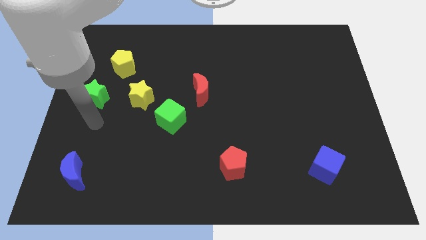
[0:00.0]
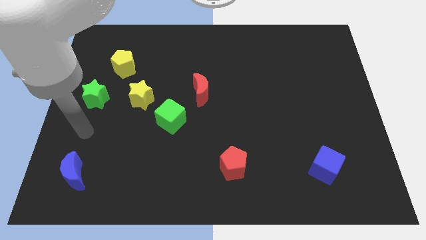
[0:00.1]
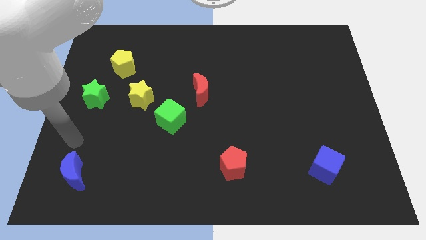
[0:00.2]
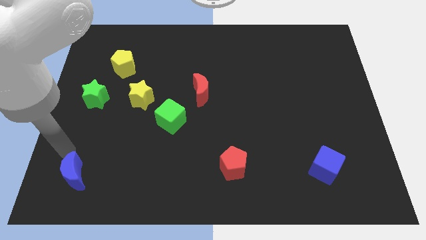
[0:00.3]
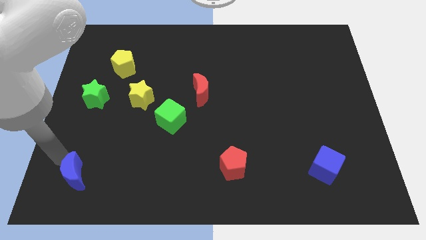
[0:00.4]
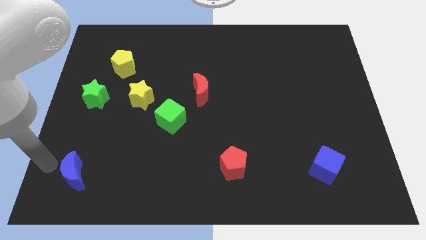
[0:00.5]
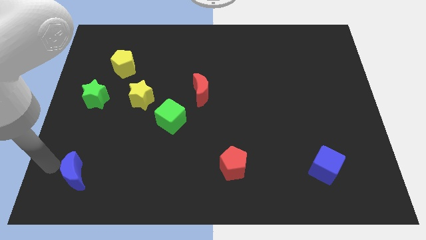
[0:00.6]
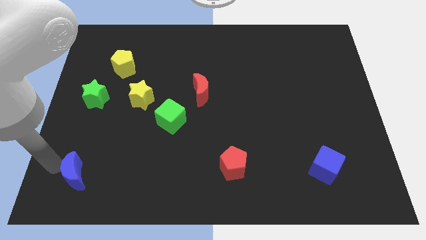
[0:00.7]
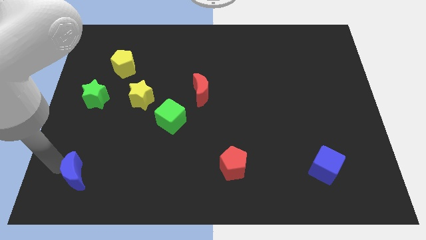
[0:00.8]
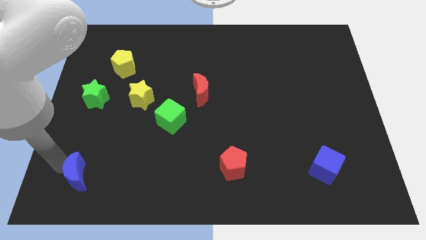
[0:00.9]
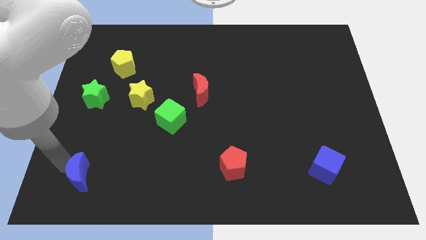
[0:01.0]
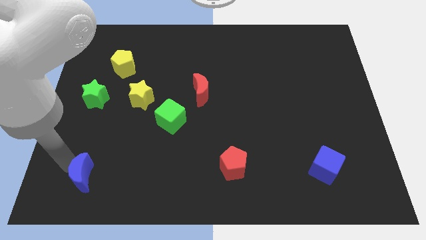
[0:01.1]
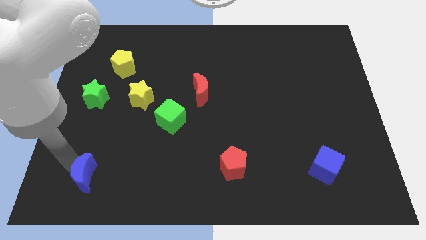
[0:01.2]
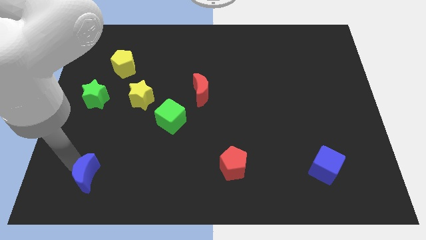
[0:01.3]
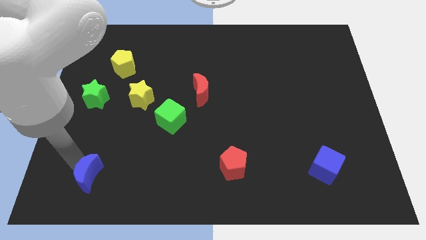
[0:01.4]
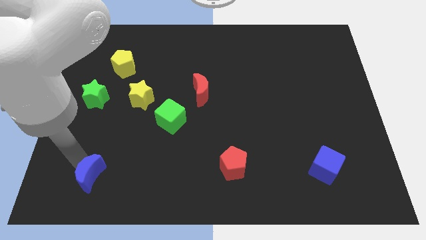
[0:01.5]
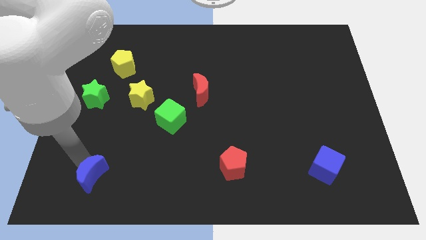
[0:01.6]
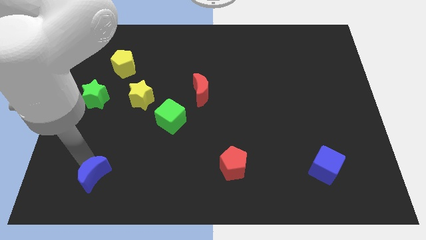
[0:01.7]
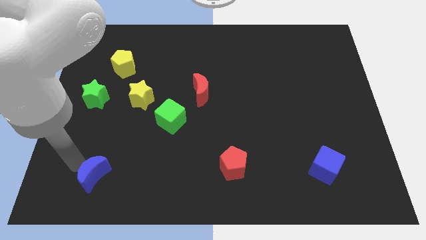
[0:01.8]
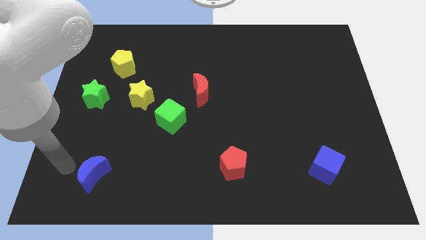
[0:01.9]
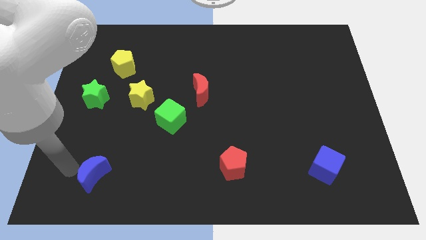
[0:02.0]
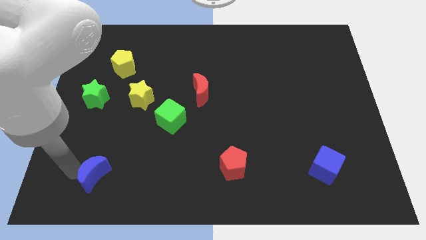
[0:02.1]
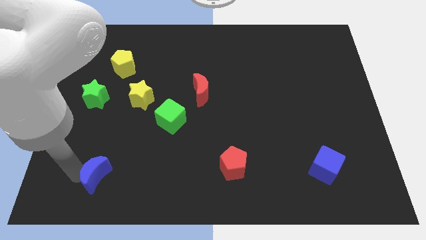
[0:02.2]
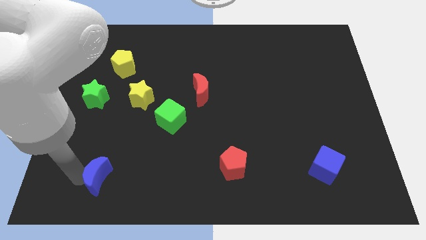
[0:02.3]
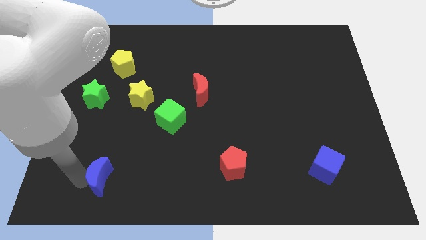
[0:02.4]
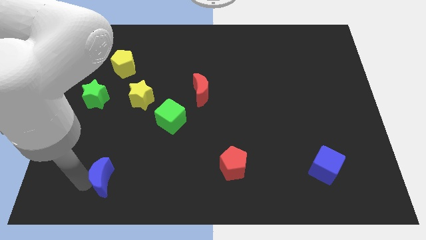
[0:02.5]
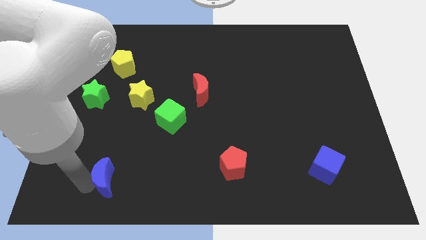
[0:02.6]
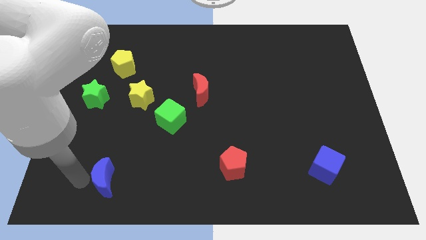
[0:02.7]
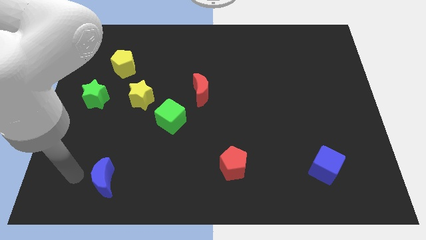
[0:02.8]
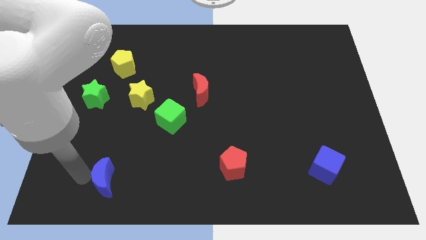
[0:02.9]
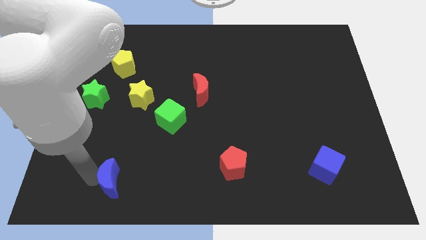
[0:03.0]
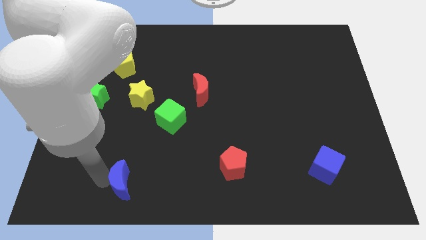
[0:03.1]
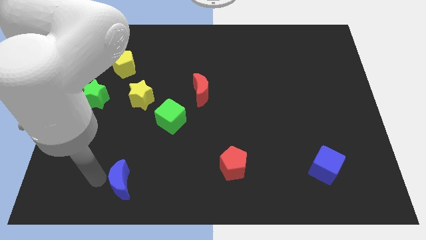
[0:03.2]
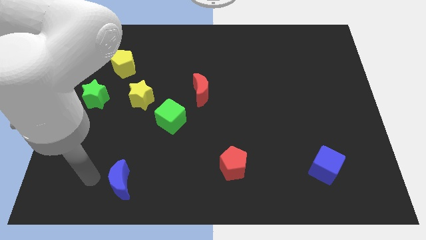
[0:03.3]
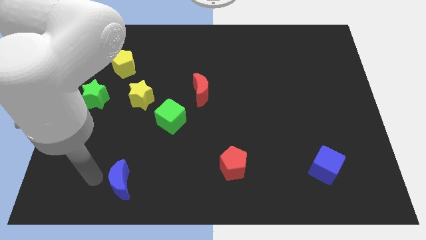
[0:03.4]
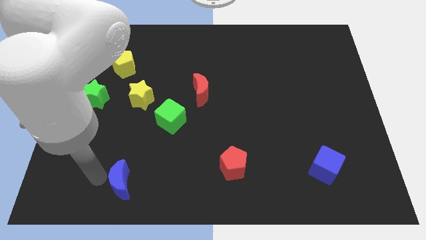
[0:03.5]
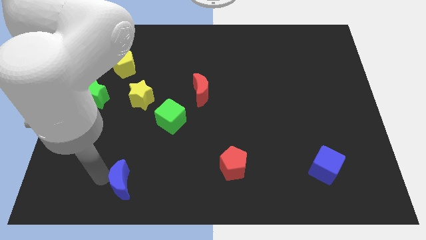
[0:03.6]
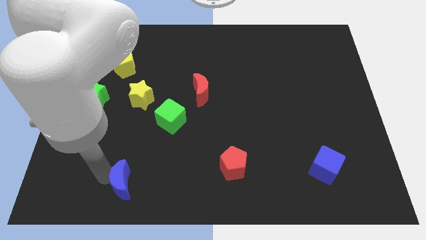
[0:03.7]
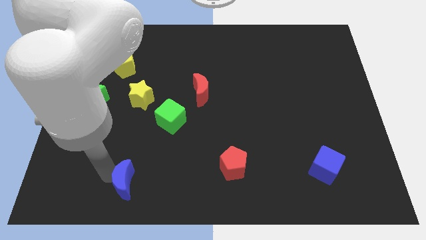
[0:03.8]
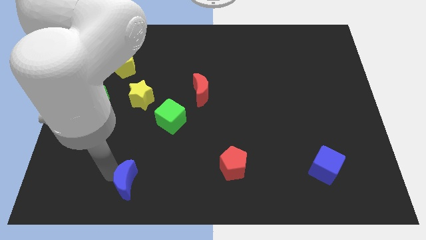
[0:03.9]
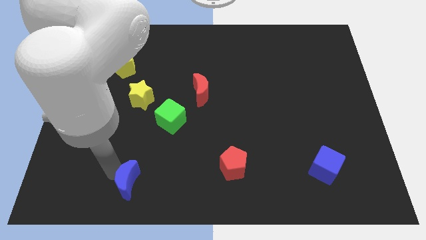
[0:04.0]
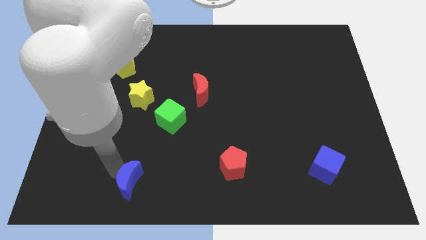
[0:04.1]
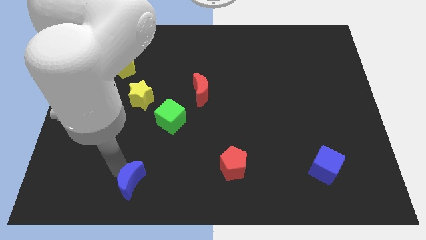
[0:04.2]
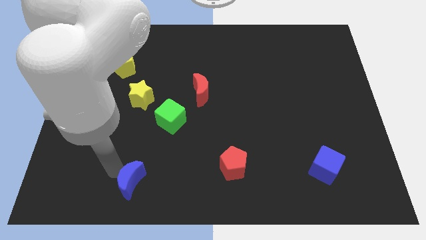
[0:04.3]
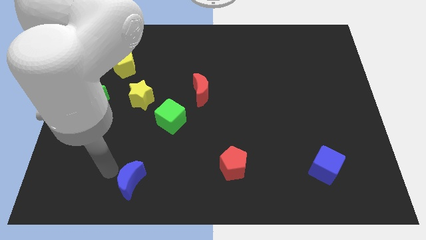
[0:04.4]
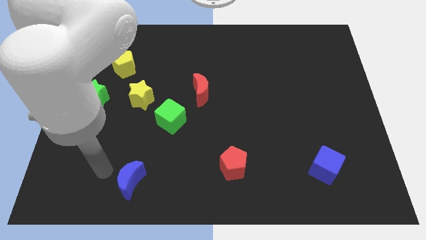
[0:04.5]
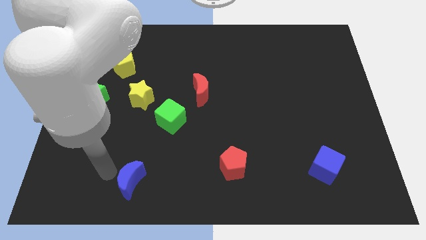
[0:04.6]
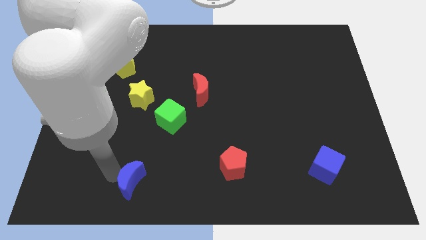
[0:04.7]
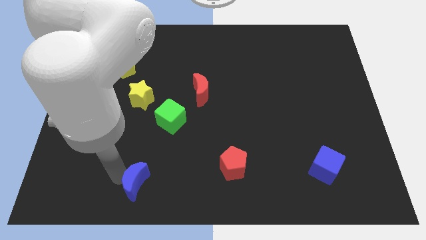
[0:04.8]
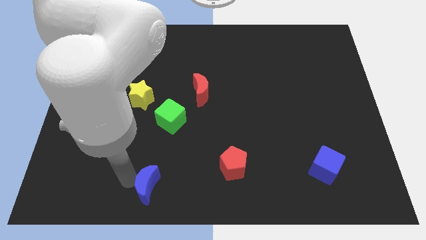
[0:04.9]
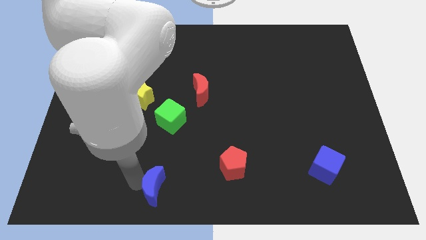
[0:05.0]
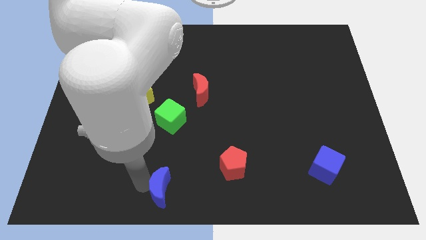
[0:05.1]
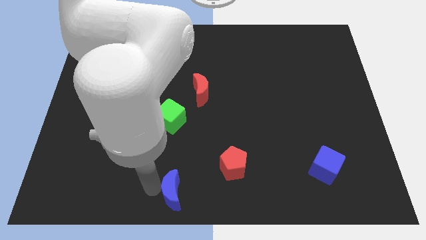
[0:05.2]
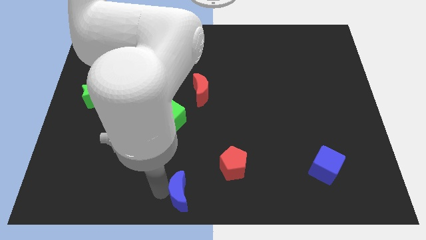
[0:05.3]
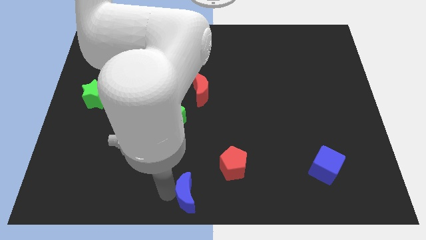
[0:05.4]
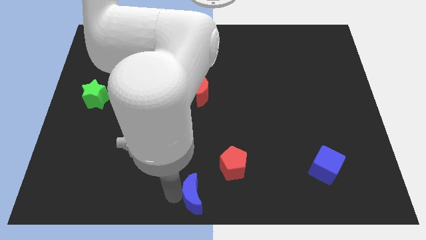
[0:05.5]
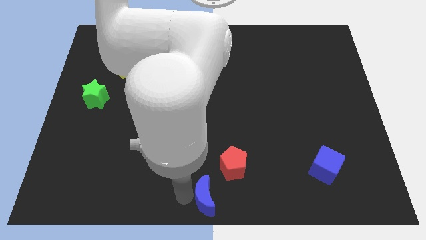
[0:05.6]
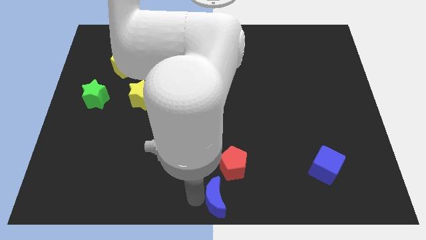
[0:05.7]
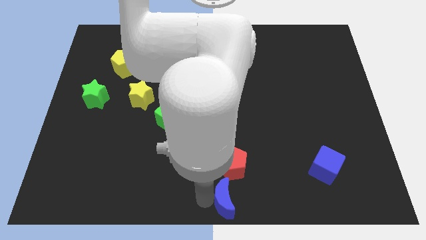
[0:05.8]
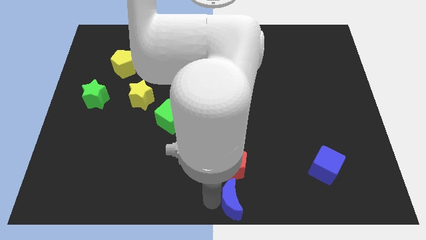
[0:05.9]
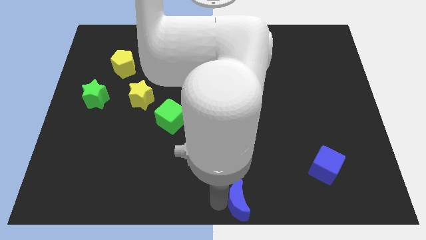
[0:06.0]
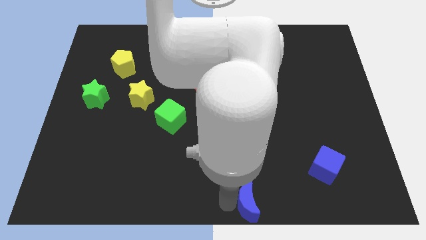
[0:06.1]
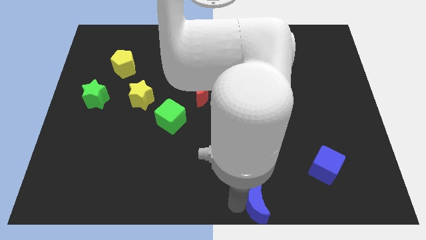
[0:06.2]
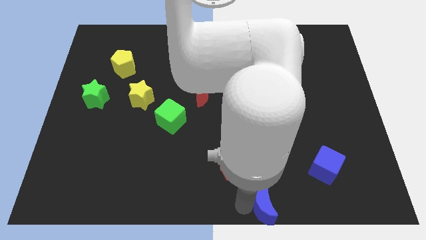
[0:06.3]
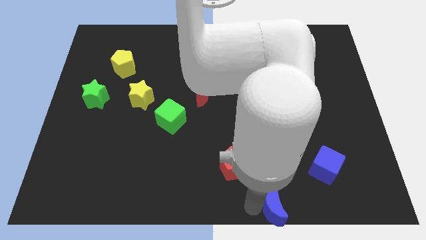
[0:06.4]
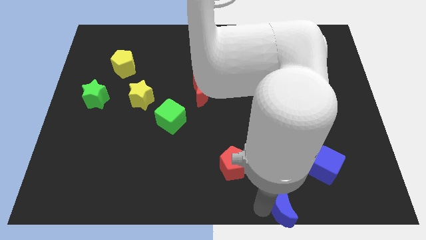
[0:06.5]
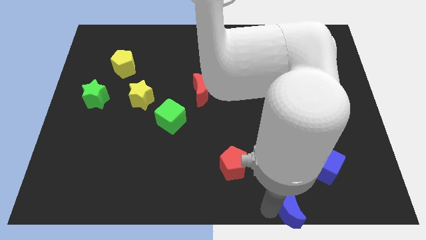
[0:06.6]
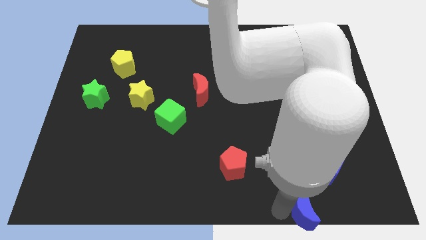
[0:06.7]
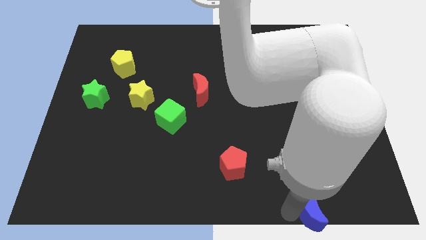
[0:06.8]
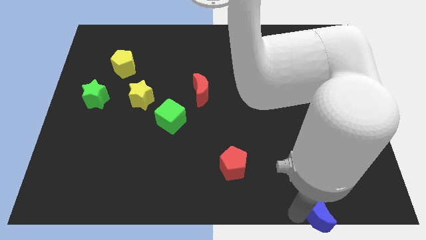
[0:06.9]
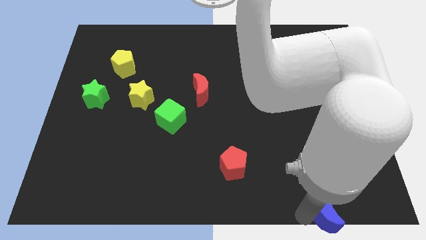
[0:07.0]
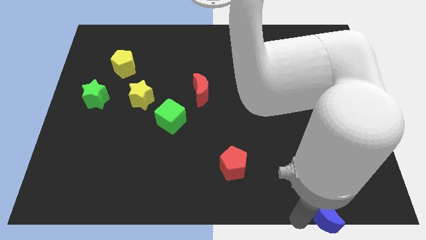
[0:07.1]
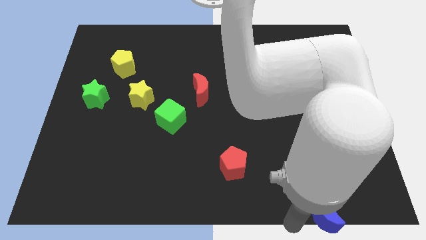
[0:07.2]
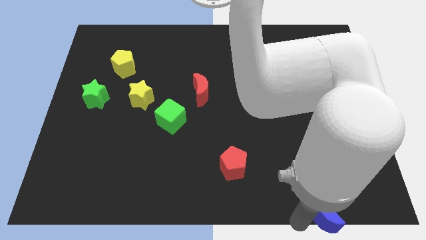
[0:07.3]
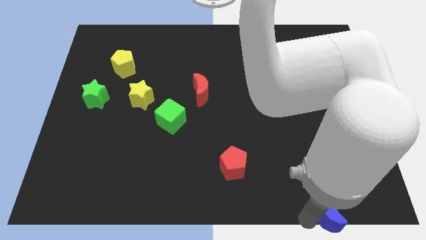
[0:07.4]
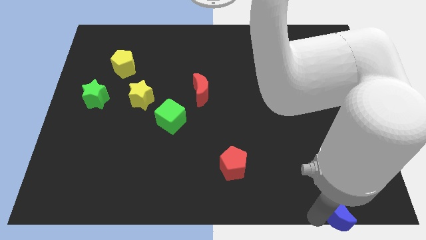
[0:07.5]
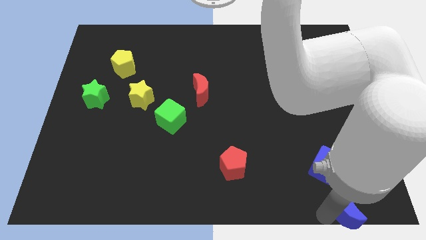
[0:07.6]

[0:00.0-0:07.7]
move the blue moon to the bottom right corner
